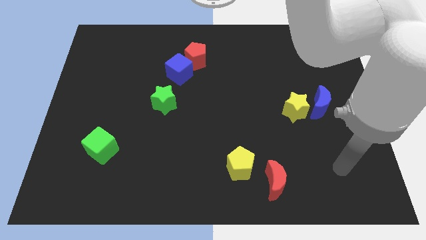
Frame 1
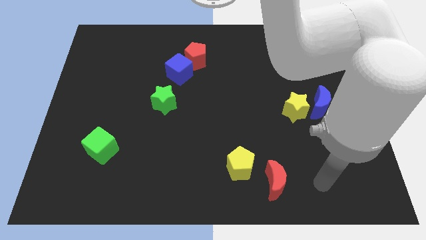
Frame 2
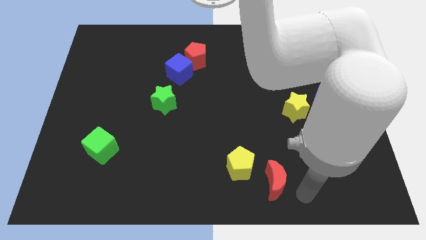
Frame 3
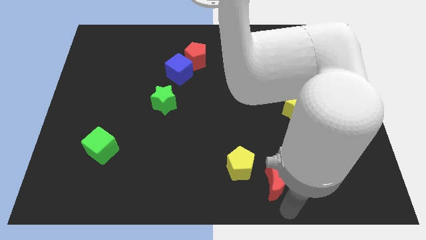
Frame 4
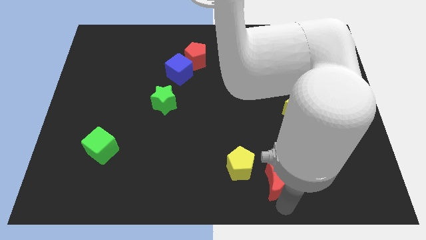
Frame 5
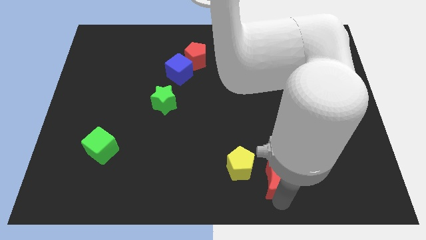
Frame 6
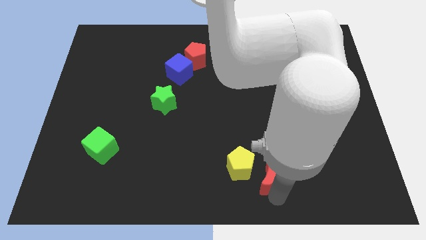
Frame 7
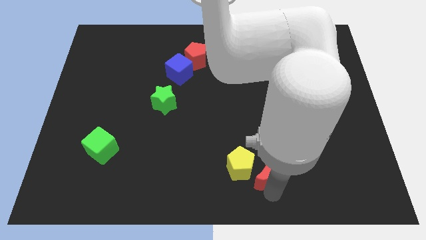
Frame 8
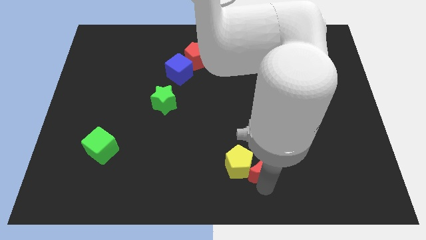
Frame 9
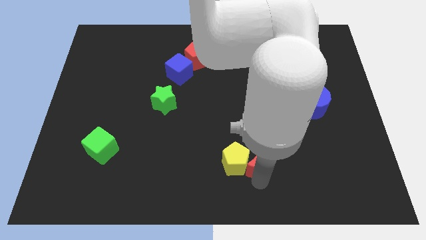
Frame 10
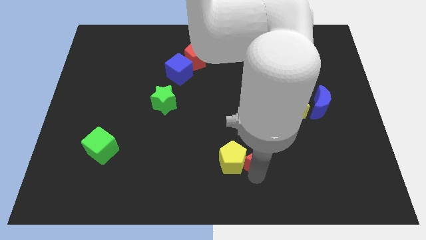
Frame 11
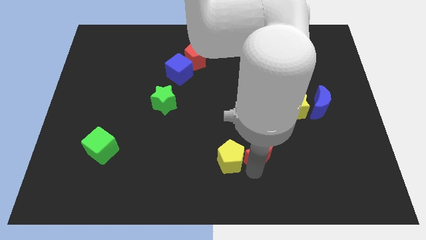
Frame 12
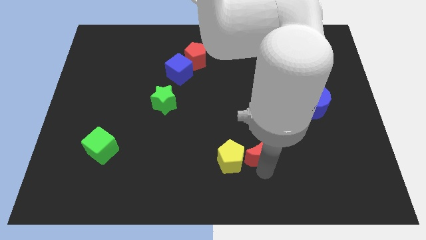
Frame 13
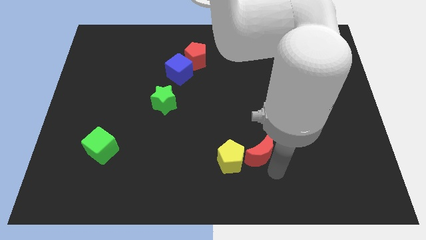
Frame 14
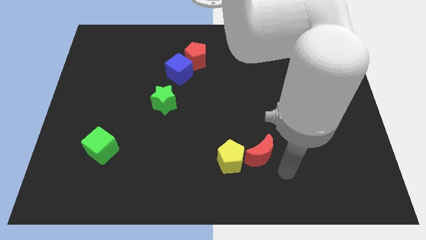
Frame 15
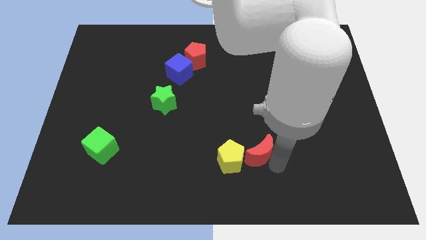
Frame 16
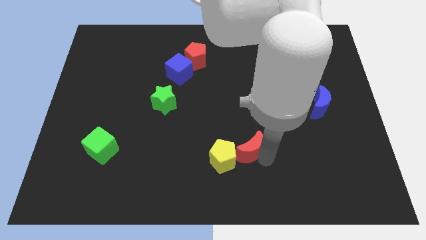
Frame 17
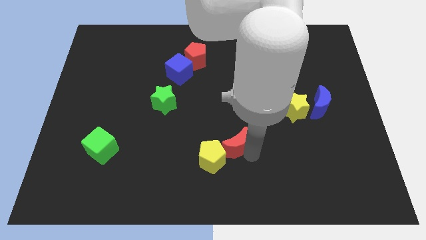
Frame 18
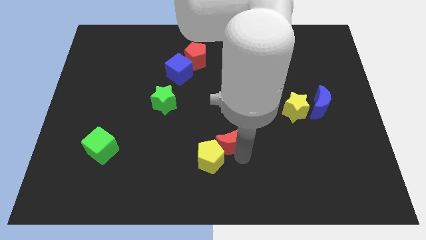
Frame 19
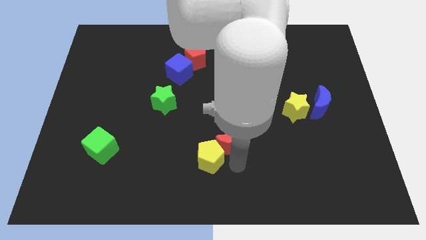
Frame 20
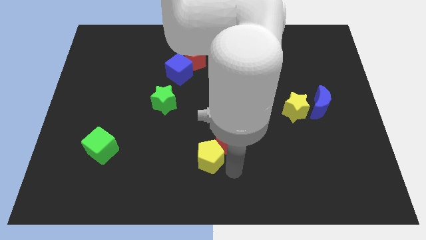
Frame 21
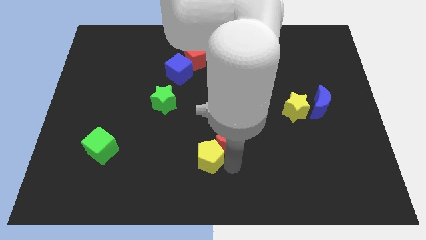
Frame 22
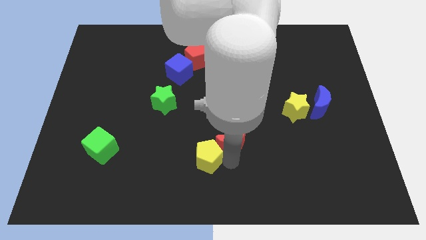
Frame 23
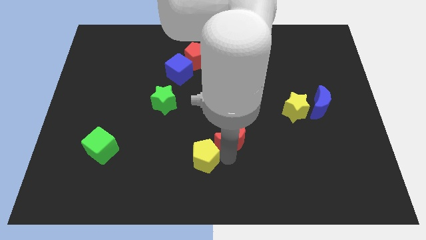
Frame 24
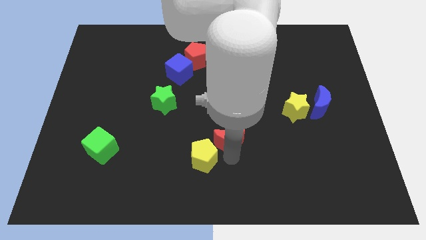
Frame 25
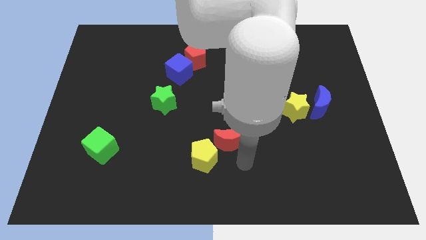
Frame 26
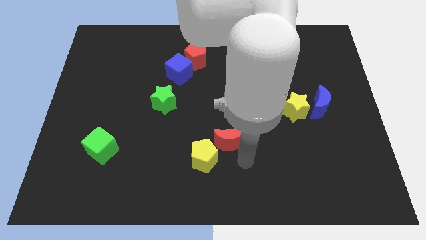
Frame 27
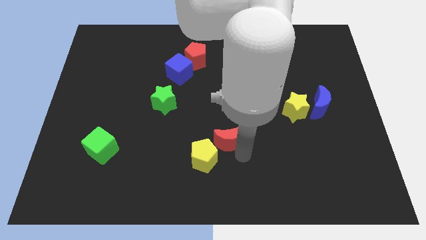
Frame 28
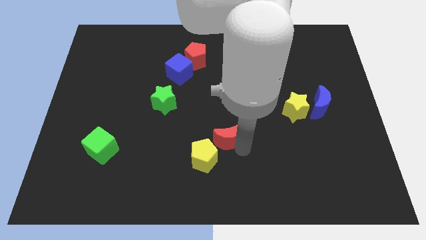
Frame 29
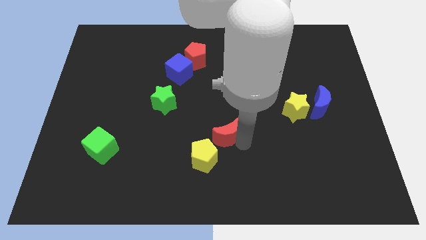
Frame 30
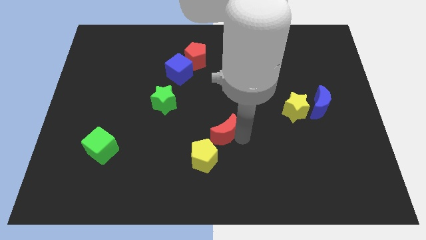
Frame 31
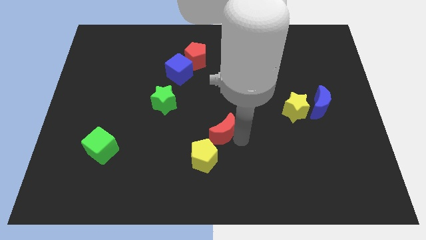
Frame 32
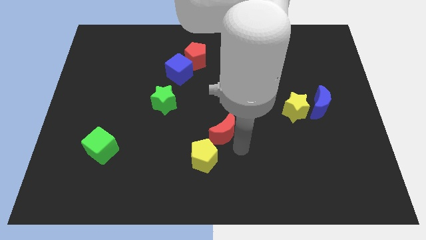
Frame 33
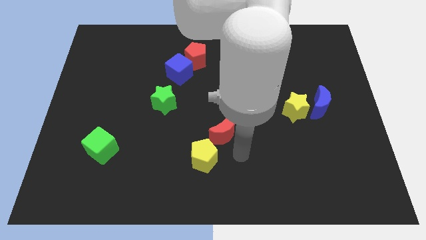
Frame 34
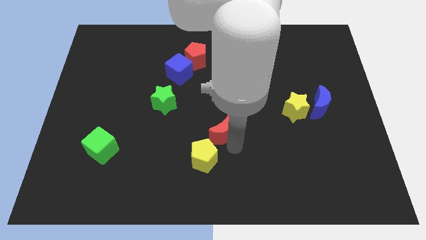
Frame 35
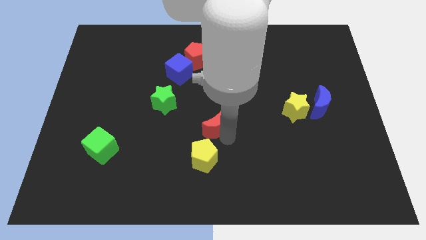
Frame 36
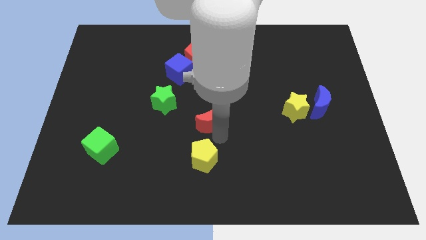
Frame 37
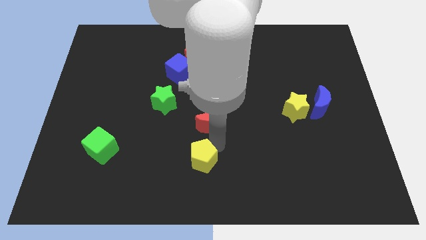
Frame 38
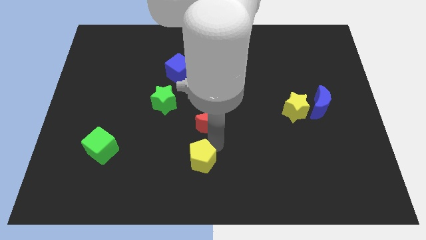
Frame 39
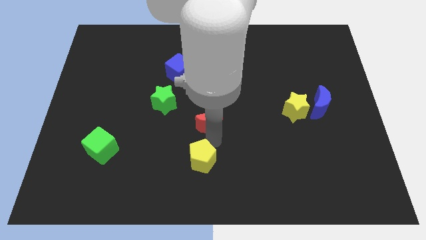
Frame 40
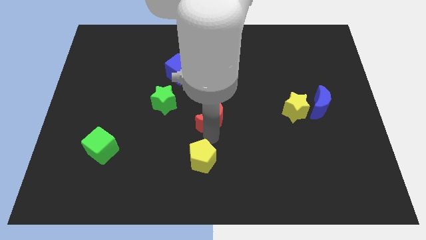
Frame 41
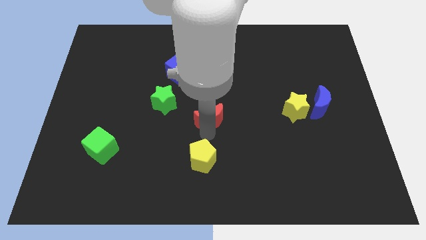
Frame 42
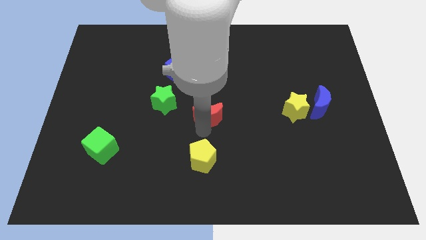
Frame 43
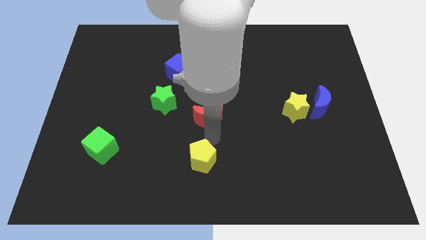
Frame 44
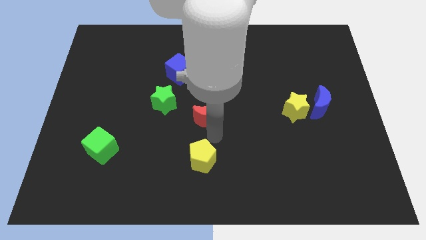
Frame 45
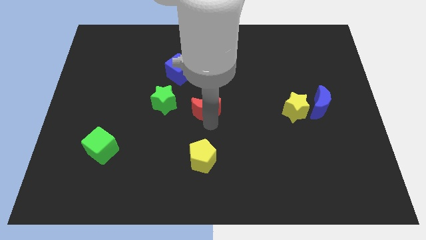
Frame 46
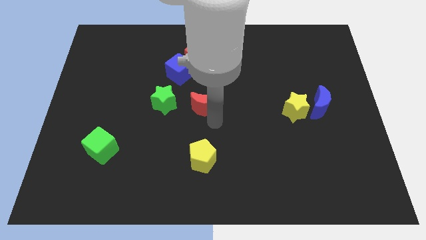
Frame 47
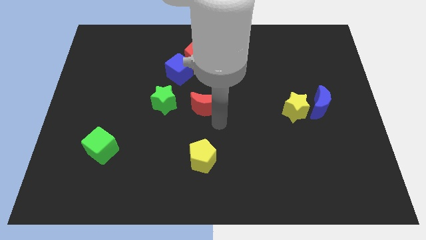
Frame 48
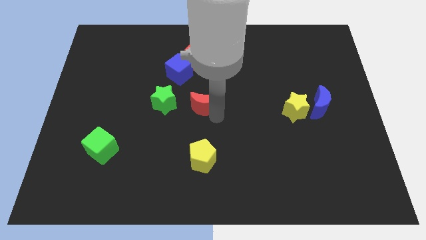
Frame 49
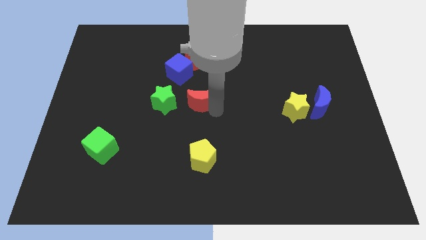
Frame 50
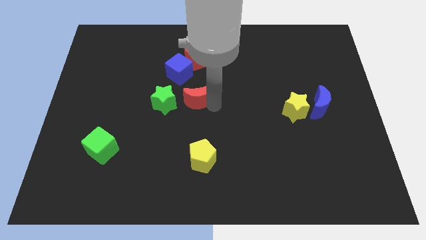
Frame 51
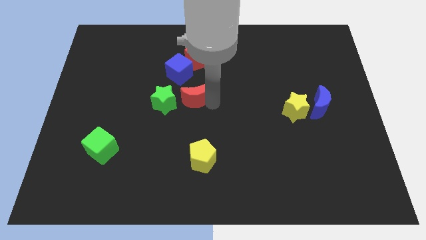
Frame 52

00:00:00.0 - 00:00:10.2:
slide the red moon diagonally up and to the right of the green star

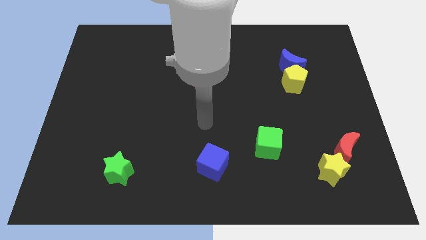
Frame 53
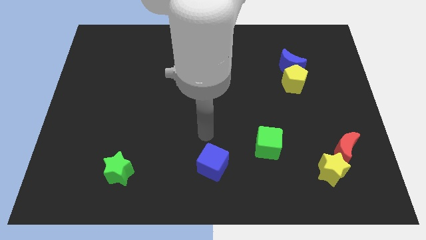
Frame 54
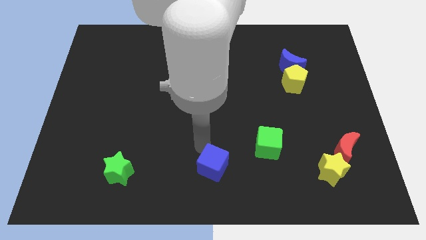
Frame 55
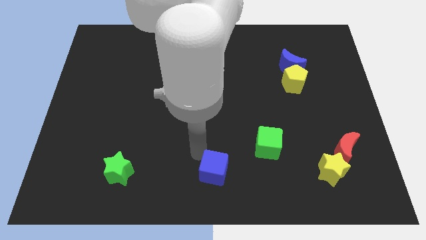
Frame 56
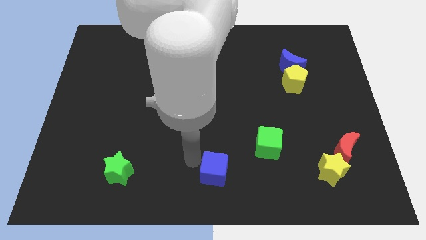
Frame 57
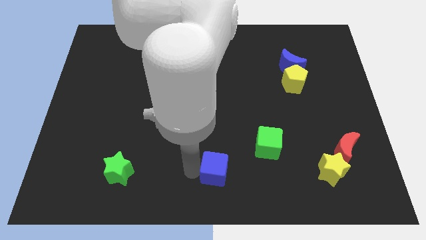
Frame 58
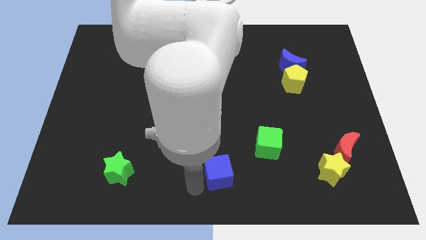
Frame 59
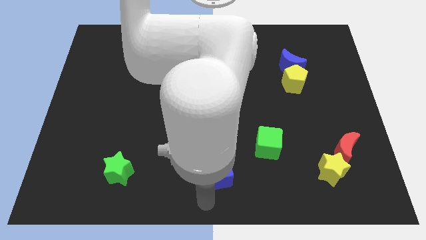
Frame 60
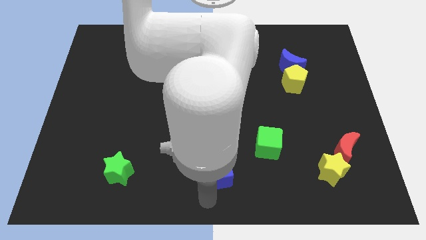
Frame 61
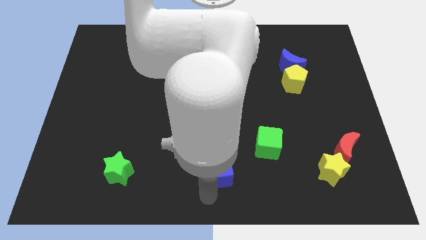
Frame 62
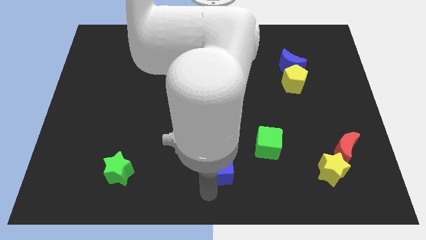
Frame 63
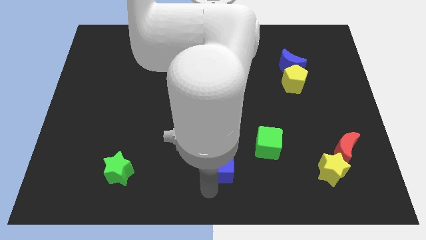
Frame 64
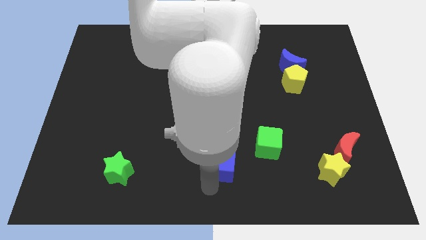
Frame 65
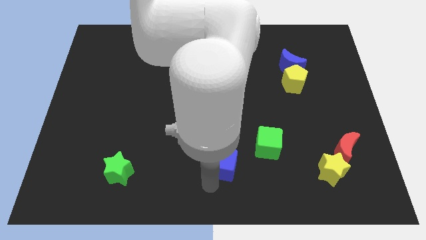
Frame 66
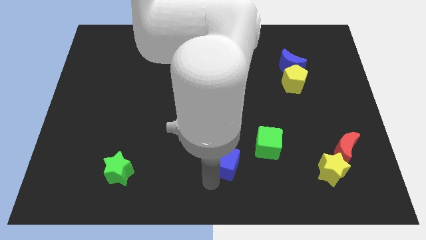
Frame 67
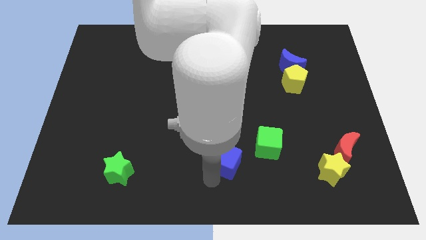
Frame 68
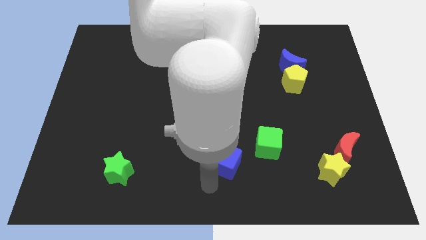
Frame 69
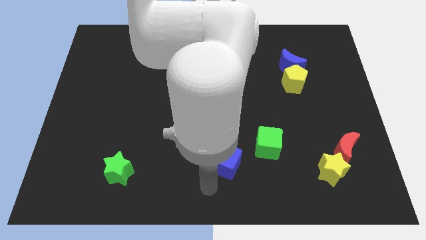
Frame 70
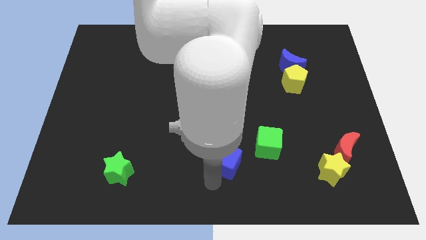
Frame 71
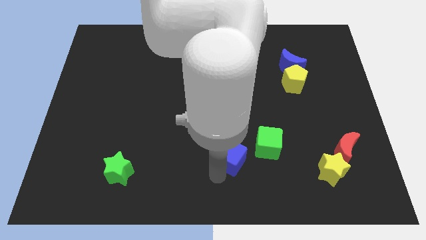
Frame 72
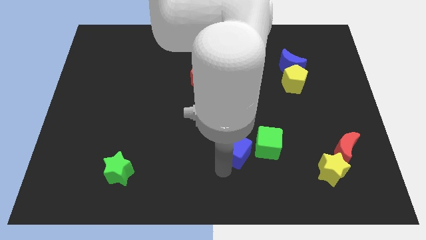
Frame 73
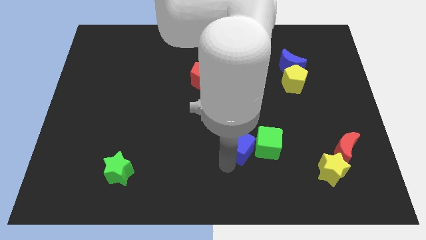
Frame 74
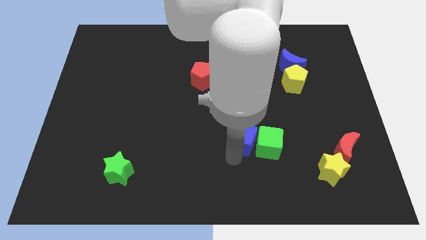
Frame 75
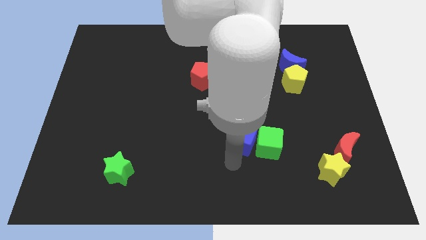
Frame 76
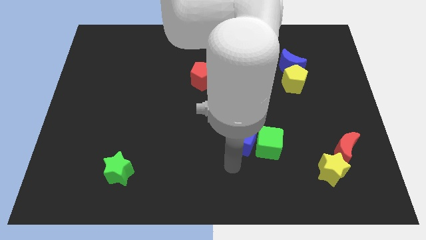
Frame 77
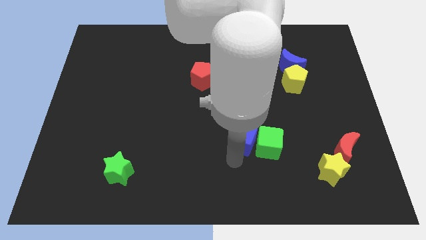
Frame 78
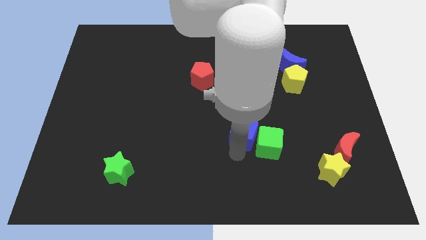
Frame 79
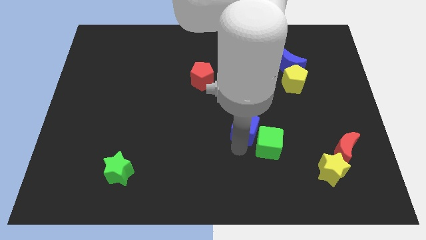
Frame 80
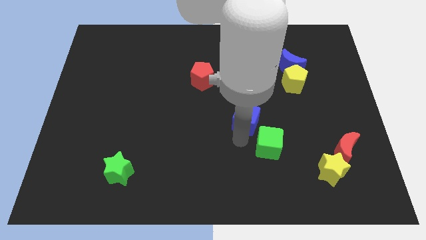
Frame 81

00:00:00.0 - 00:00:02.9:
slide the blue cube to the top of the green cube
